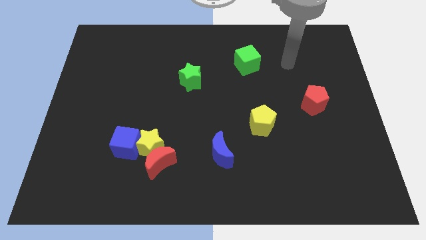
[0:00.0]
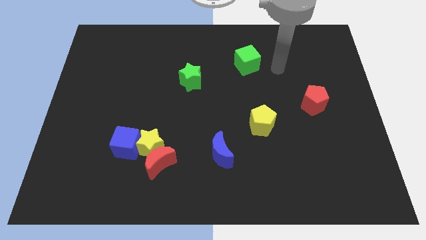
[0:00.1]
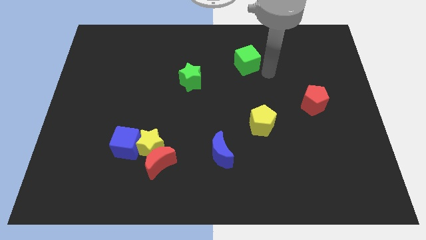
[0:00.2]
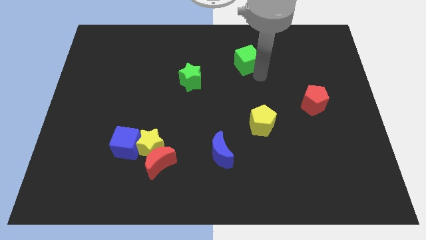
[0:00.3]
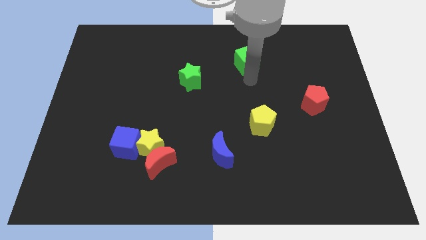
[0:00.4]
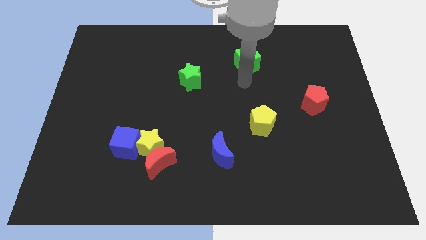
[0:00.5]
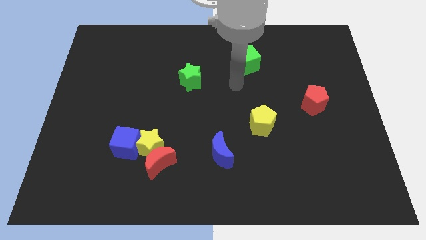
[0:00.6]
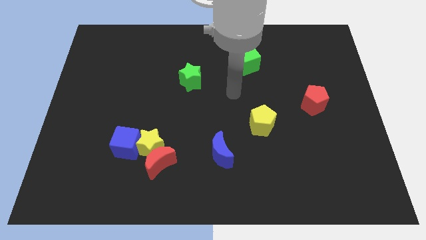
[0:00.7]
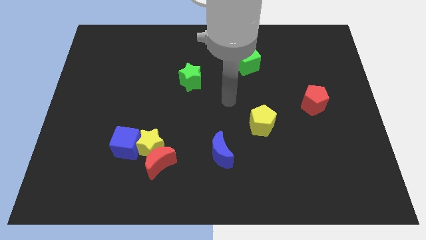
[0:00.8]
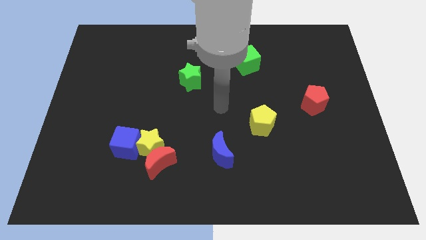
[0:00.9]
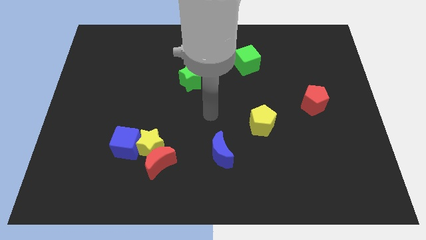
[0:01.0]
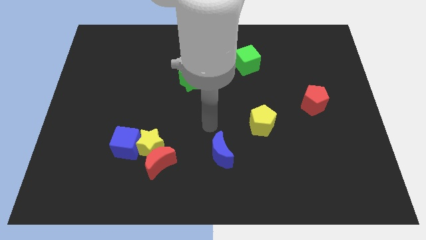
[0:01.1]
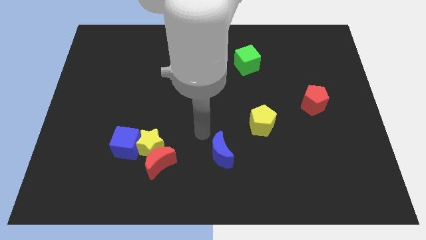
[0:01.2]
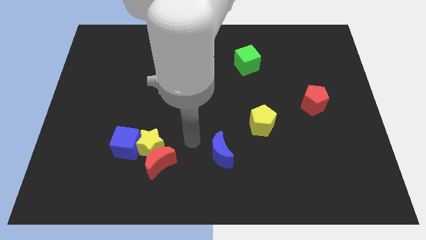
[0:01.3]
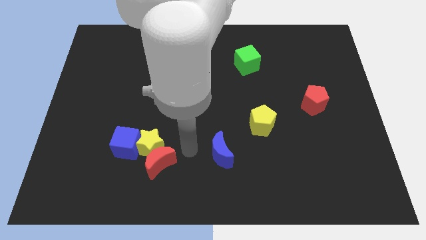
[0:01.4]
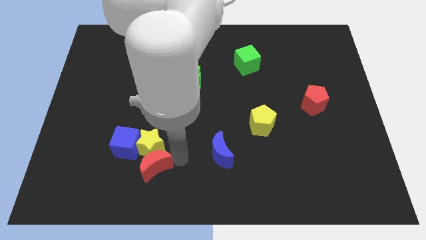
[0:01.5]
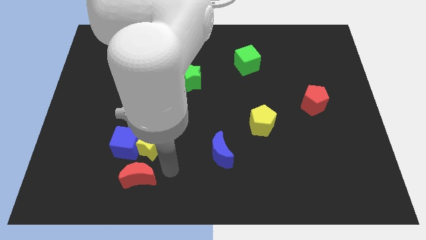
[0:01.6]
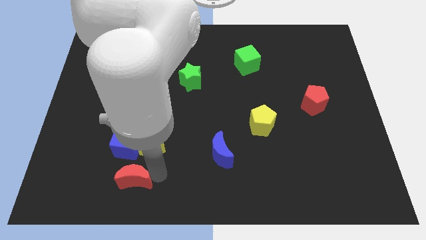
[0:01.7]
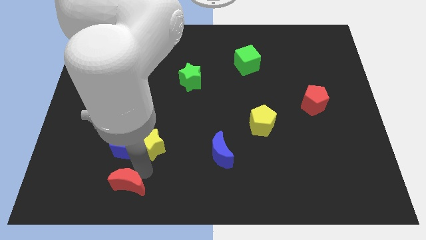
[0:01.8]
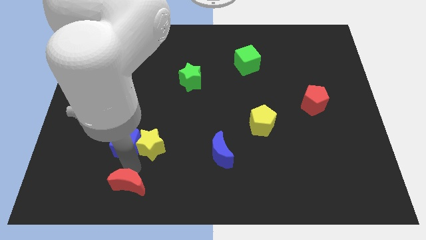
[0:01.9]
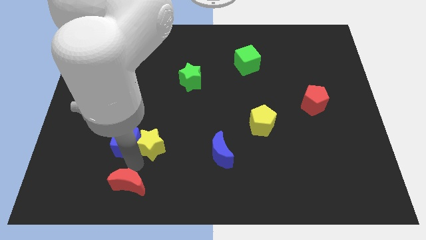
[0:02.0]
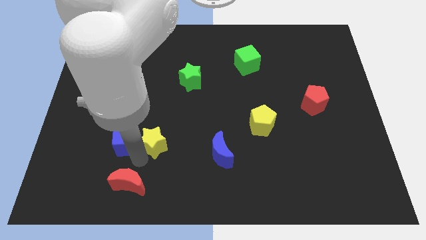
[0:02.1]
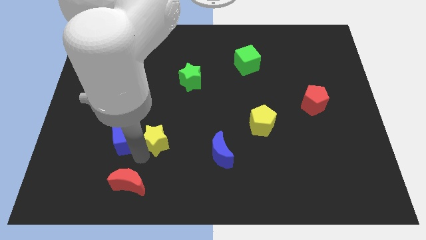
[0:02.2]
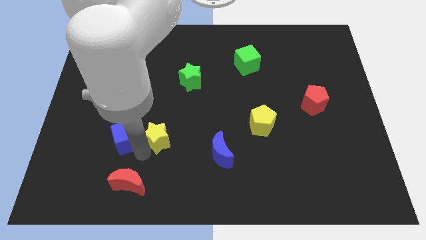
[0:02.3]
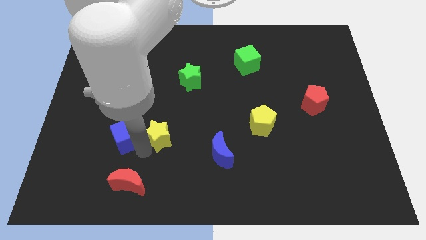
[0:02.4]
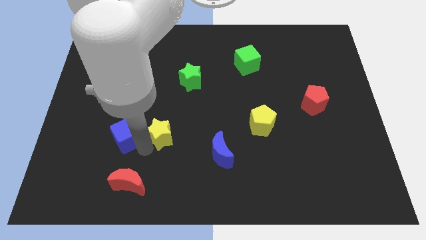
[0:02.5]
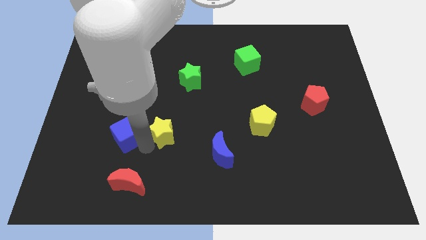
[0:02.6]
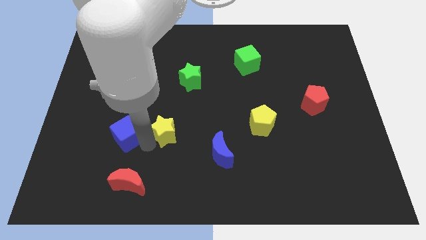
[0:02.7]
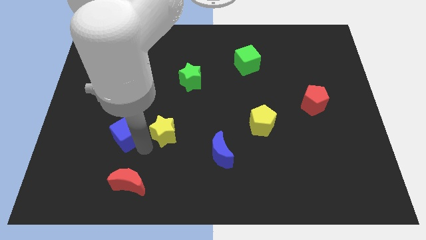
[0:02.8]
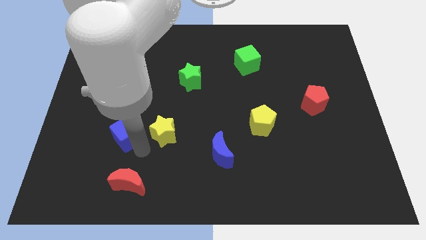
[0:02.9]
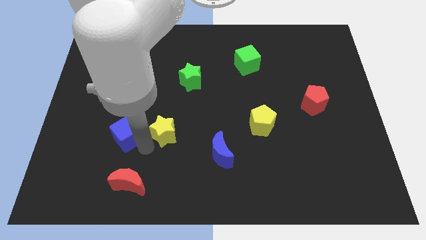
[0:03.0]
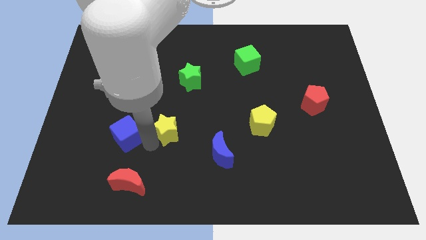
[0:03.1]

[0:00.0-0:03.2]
separate the yellow star from the red moon and blue cube

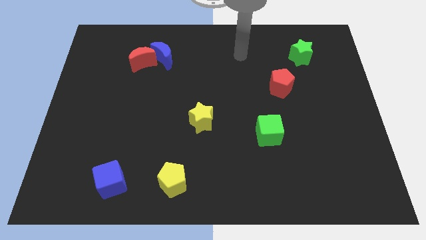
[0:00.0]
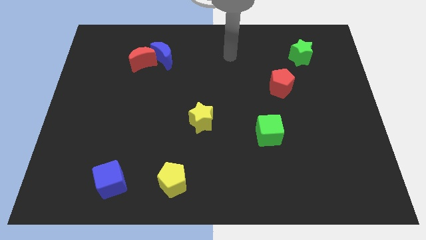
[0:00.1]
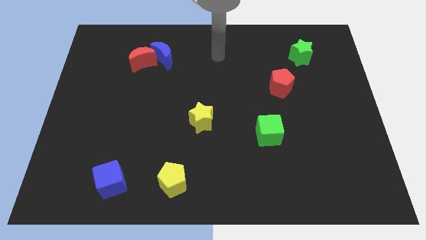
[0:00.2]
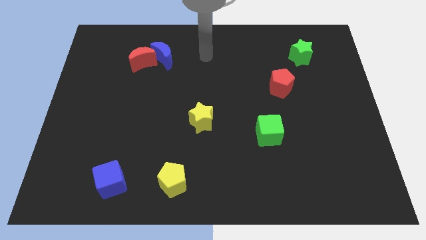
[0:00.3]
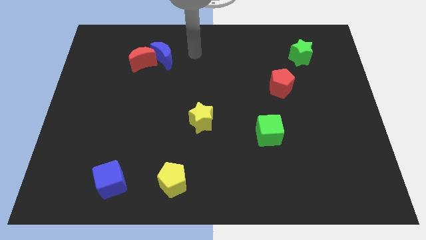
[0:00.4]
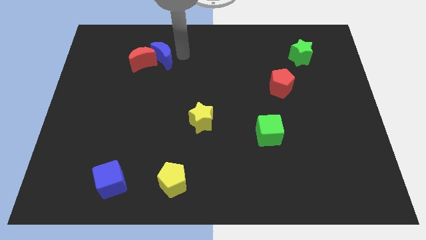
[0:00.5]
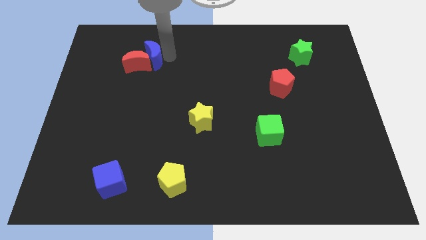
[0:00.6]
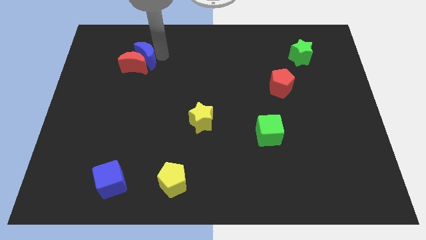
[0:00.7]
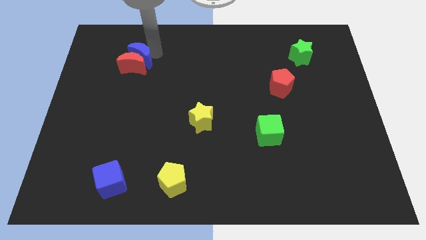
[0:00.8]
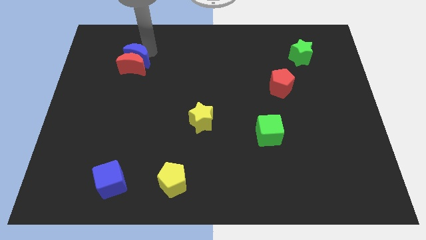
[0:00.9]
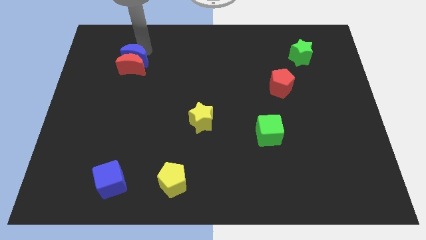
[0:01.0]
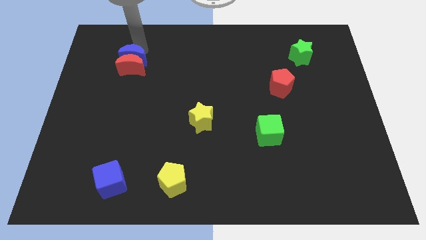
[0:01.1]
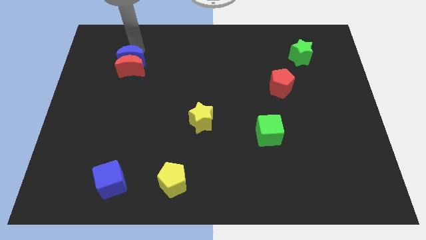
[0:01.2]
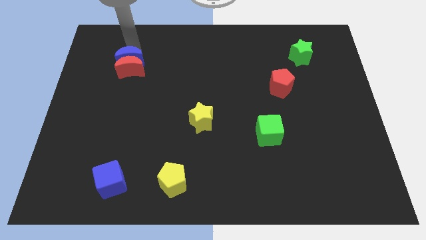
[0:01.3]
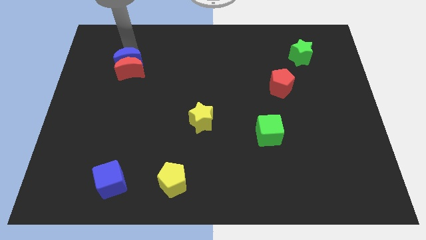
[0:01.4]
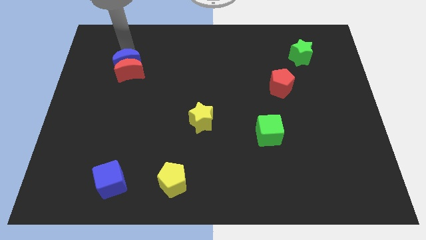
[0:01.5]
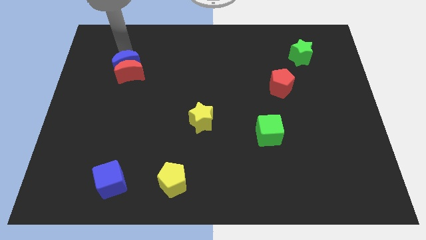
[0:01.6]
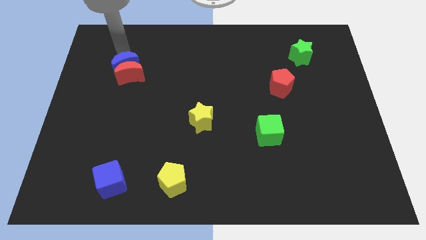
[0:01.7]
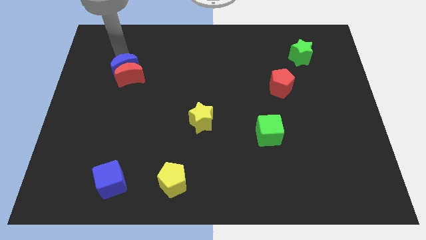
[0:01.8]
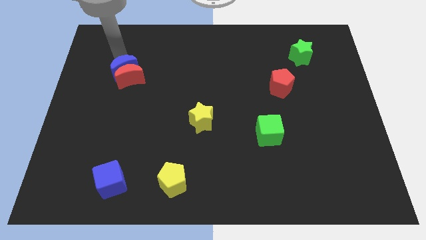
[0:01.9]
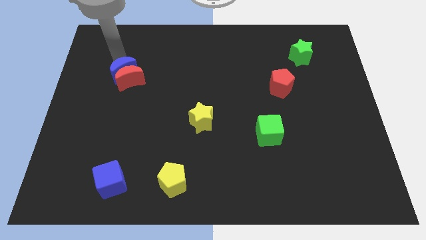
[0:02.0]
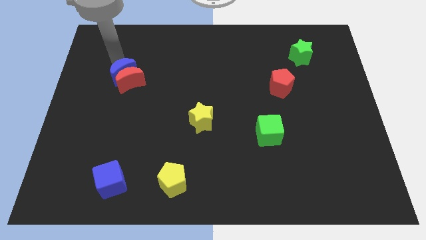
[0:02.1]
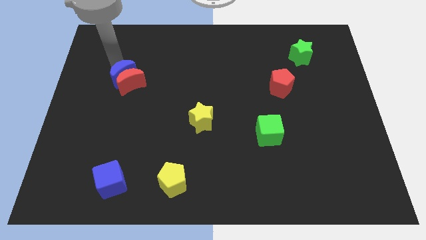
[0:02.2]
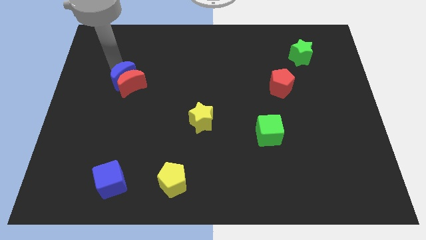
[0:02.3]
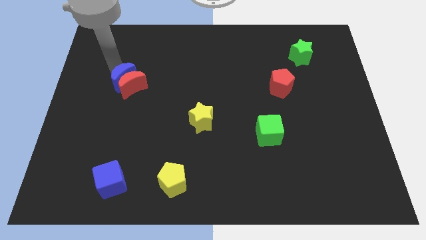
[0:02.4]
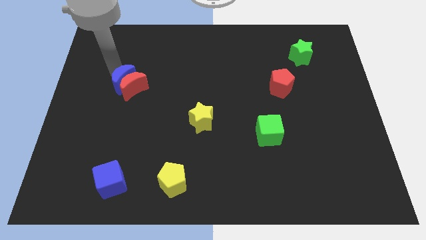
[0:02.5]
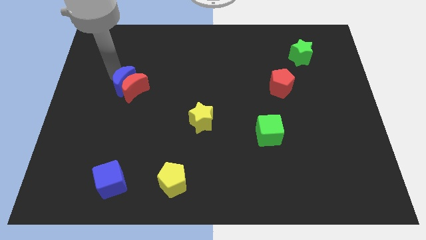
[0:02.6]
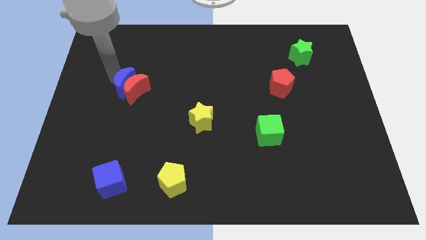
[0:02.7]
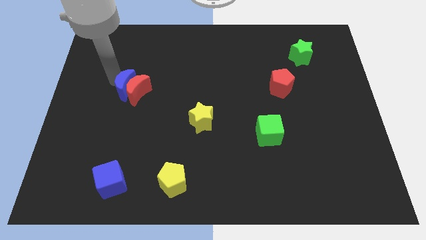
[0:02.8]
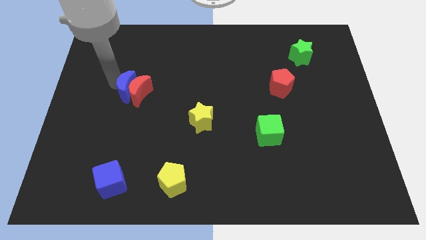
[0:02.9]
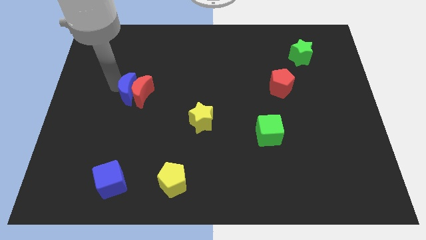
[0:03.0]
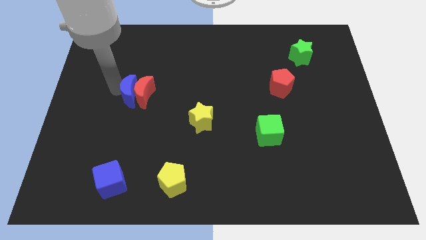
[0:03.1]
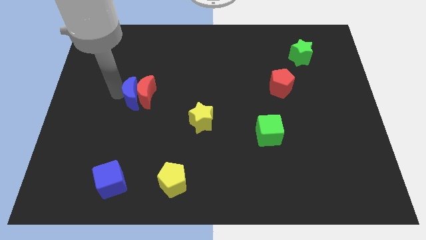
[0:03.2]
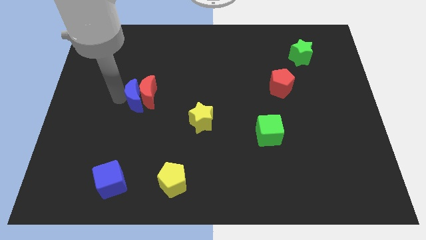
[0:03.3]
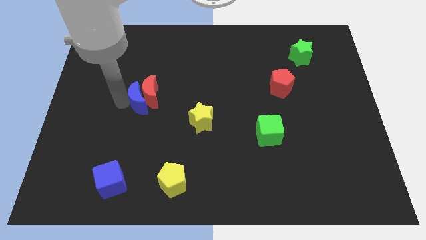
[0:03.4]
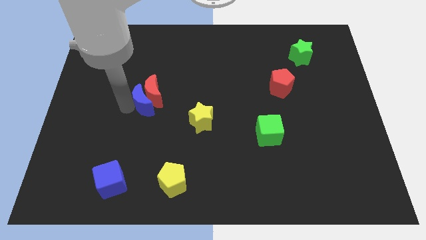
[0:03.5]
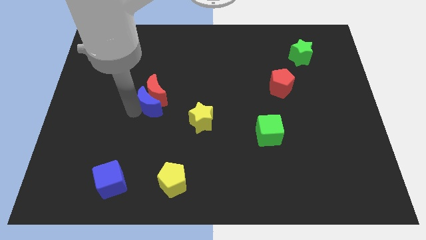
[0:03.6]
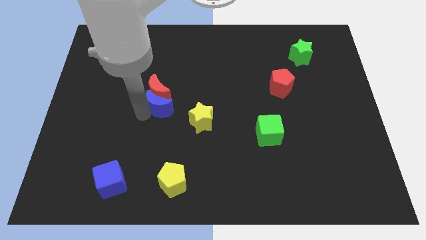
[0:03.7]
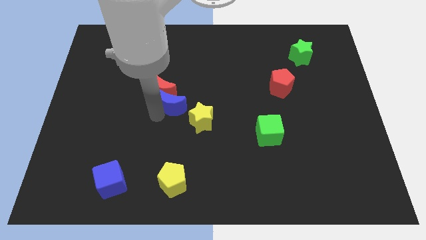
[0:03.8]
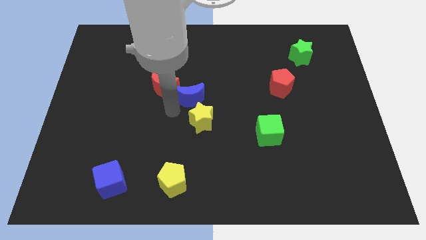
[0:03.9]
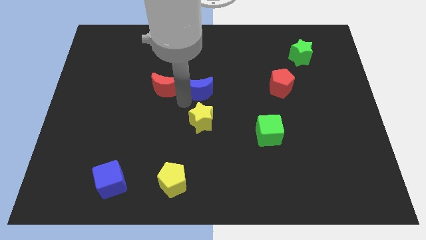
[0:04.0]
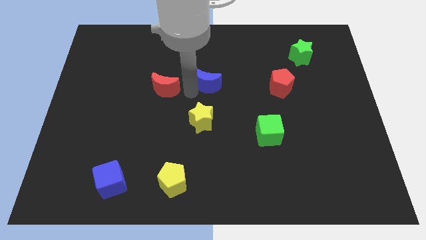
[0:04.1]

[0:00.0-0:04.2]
separate the red moon from the blue moon

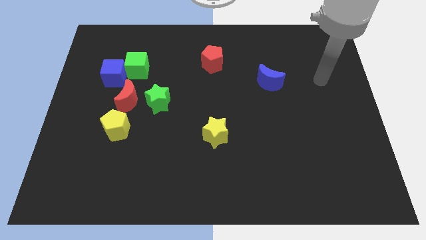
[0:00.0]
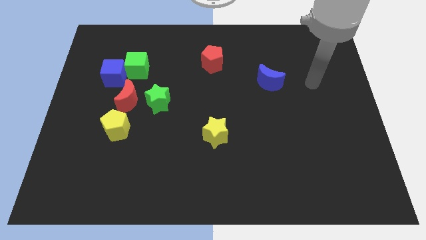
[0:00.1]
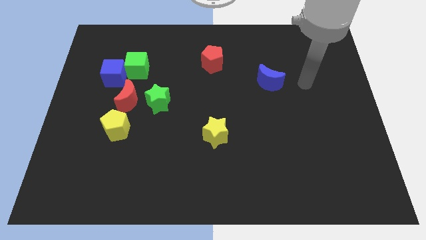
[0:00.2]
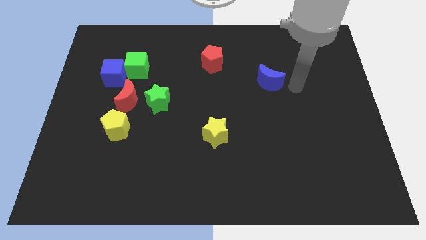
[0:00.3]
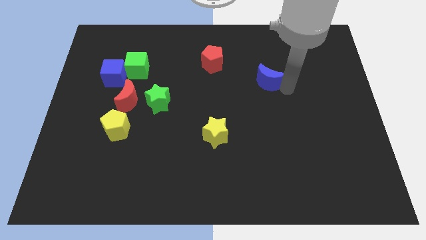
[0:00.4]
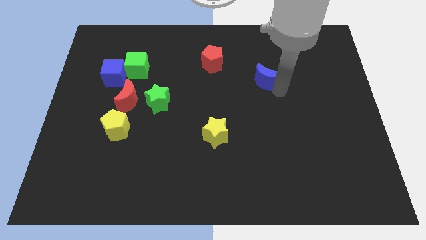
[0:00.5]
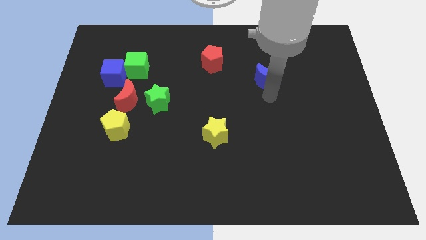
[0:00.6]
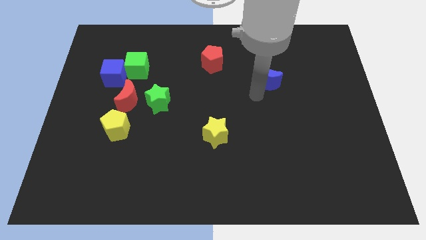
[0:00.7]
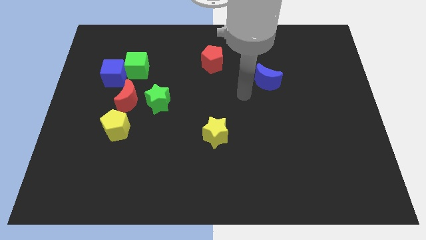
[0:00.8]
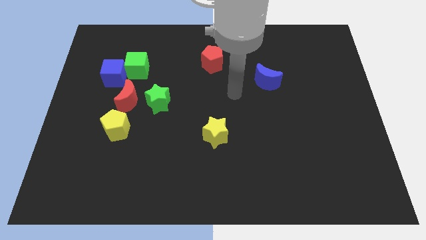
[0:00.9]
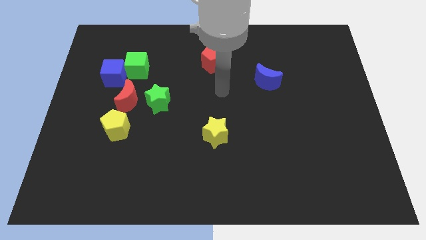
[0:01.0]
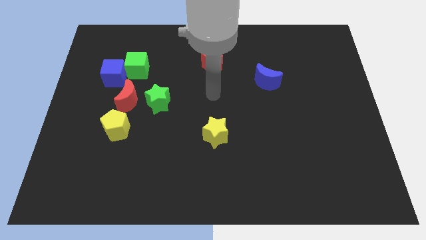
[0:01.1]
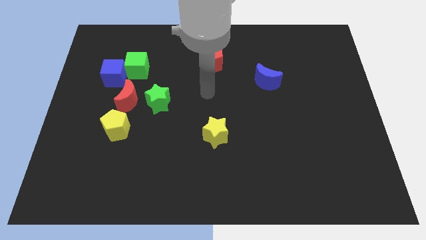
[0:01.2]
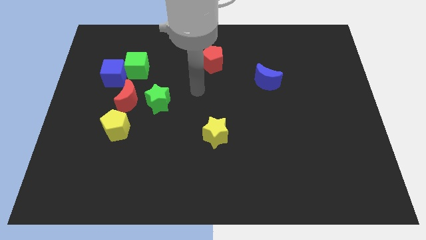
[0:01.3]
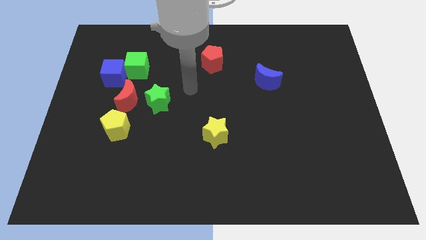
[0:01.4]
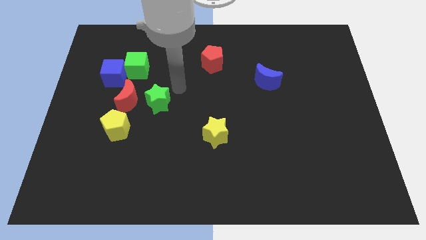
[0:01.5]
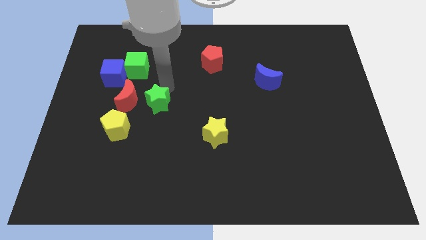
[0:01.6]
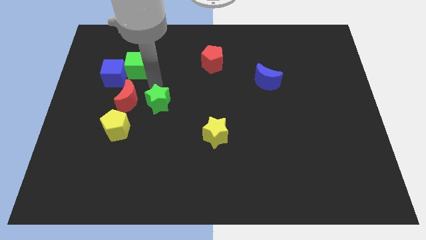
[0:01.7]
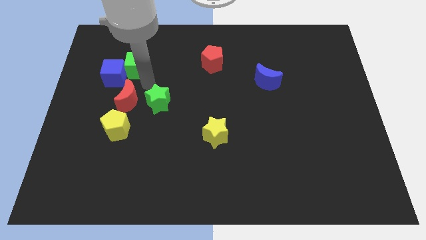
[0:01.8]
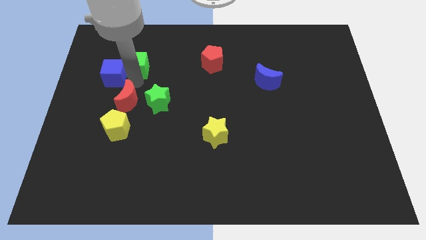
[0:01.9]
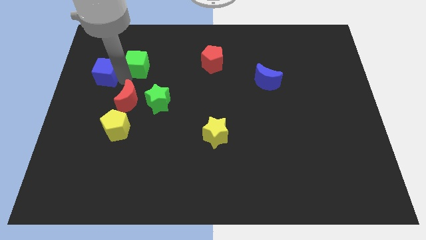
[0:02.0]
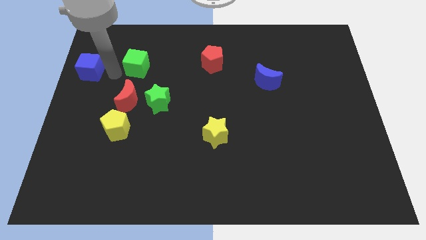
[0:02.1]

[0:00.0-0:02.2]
pull the green cube apart from the blue cube

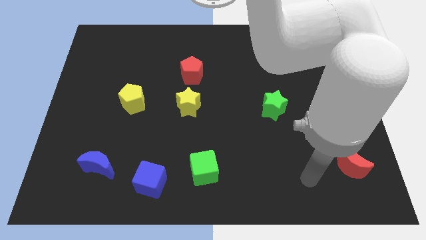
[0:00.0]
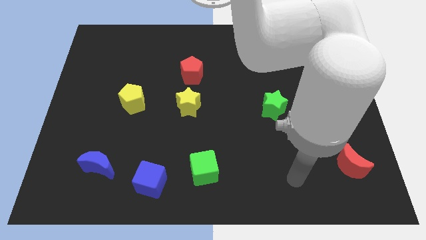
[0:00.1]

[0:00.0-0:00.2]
move the red pentagon away from the yellow star
